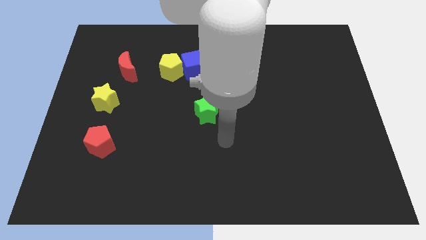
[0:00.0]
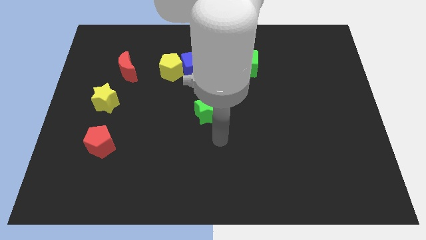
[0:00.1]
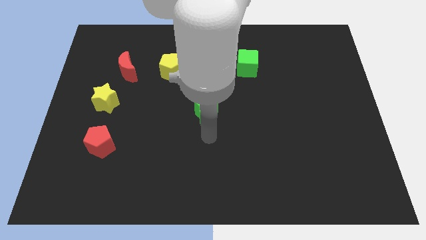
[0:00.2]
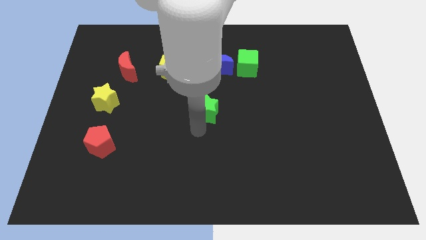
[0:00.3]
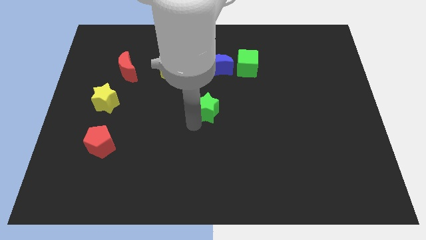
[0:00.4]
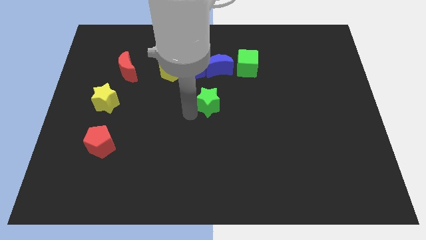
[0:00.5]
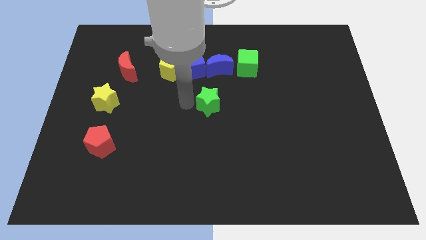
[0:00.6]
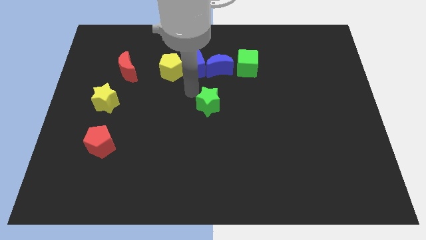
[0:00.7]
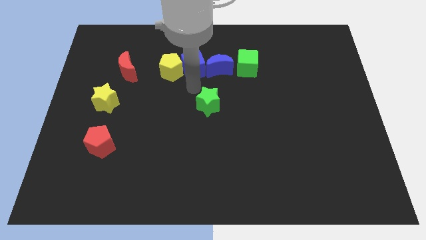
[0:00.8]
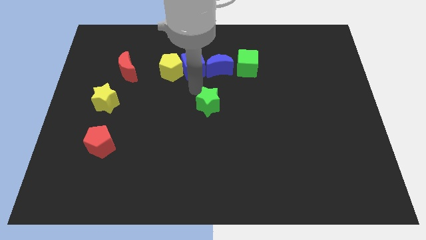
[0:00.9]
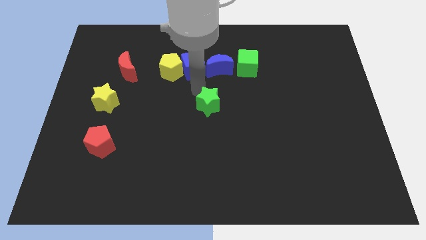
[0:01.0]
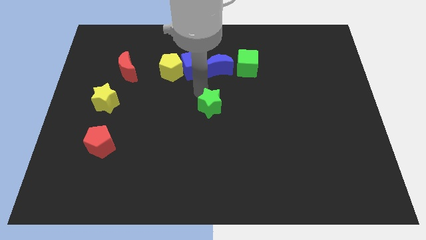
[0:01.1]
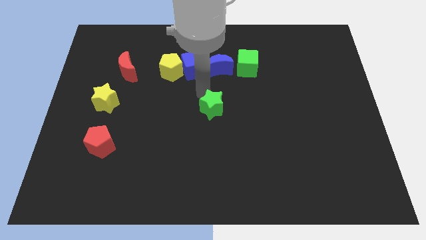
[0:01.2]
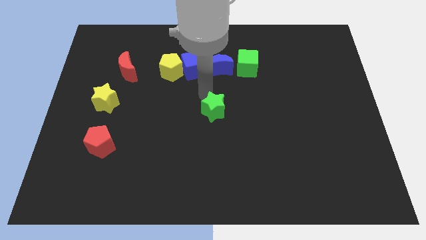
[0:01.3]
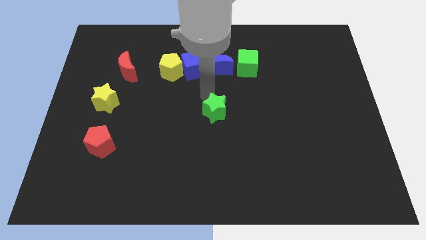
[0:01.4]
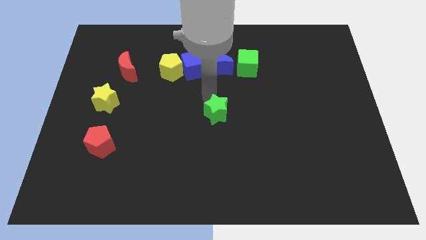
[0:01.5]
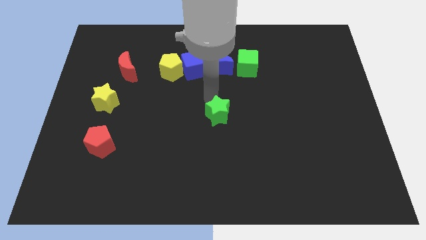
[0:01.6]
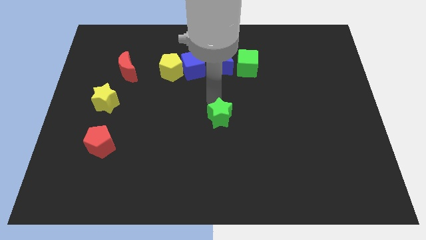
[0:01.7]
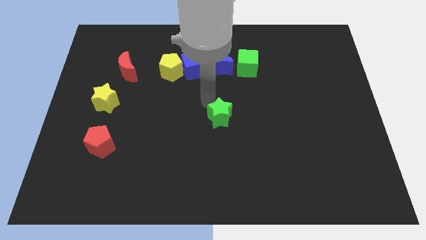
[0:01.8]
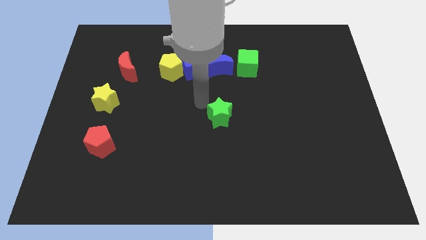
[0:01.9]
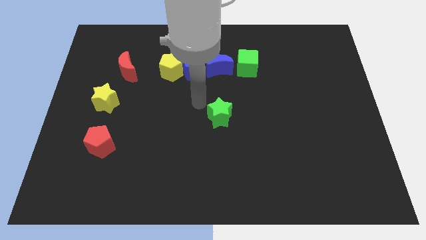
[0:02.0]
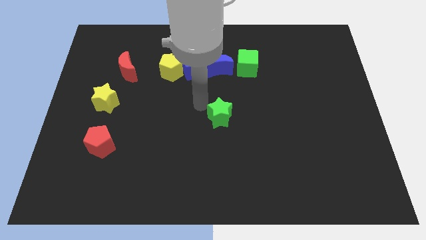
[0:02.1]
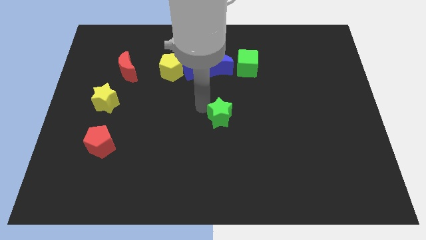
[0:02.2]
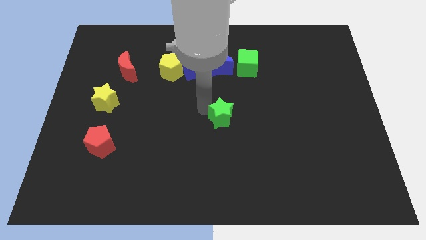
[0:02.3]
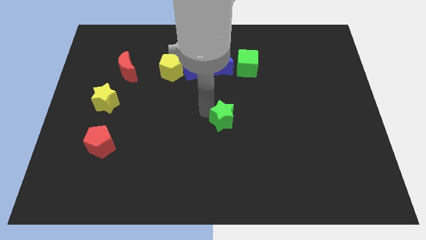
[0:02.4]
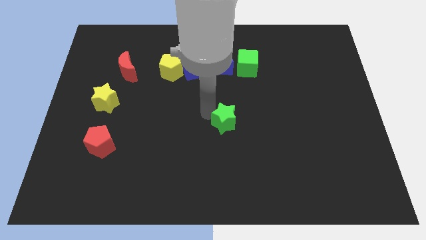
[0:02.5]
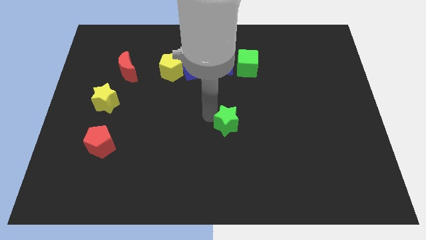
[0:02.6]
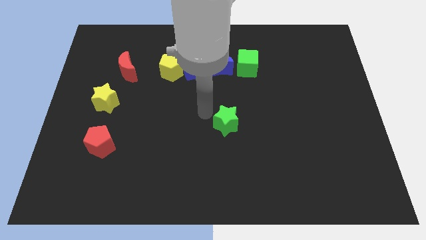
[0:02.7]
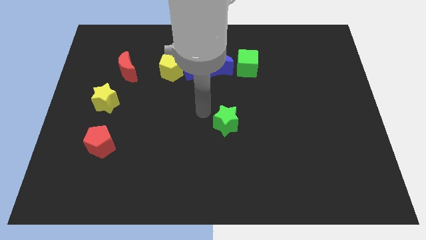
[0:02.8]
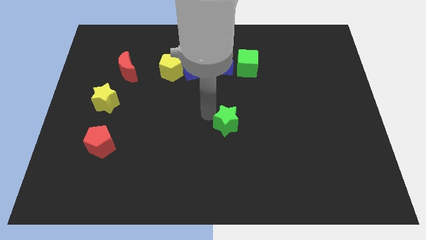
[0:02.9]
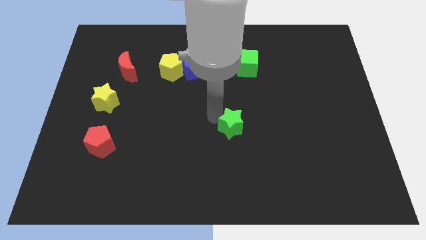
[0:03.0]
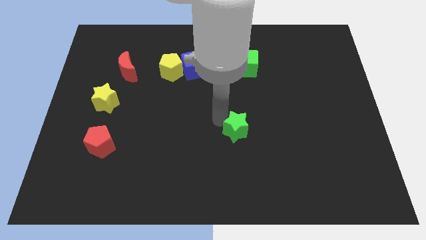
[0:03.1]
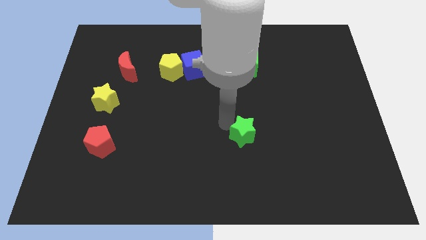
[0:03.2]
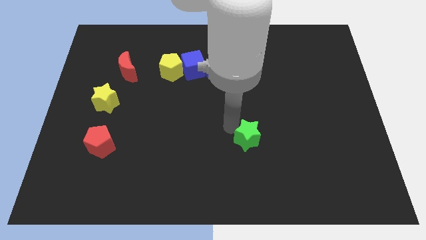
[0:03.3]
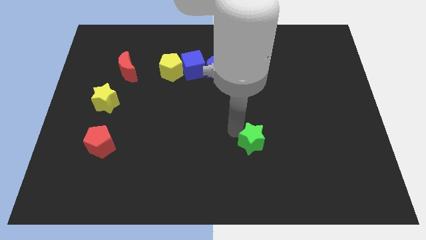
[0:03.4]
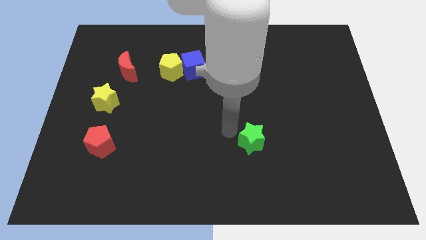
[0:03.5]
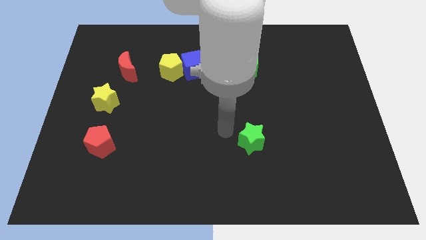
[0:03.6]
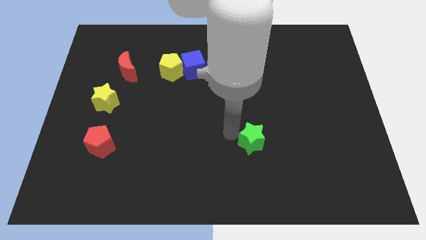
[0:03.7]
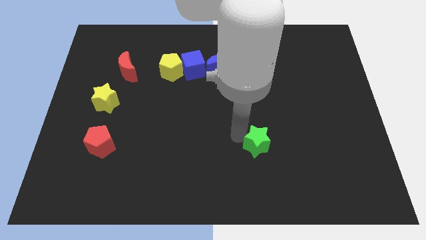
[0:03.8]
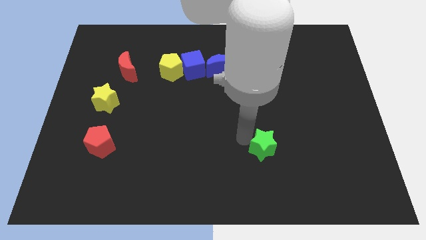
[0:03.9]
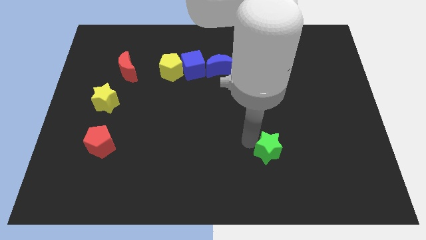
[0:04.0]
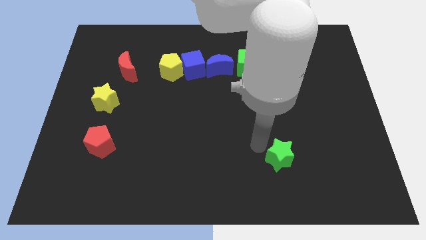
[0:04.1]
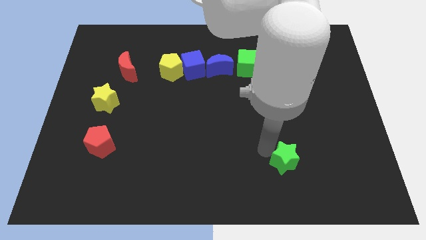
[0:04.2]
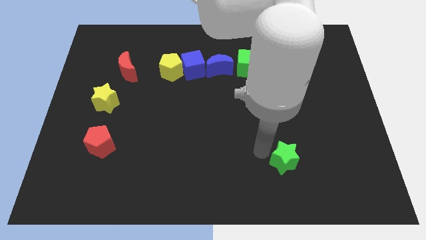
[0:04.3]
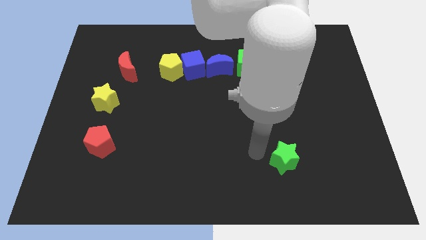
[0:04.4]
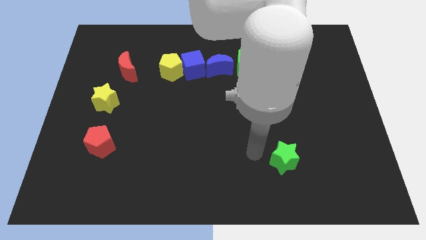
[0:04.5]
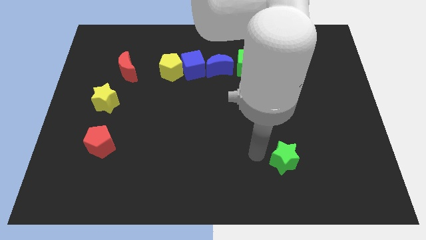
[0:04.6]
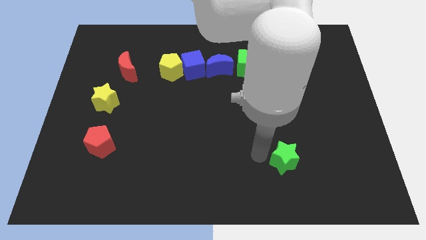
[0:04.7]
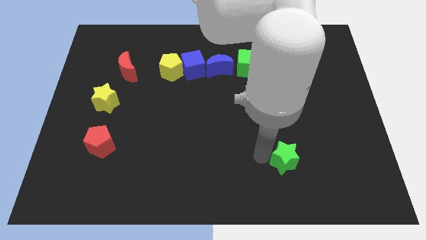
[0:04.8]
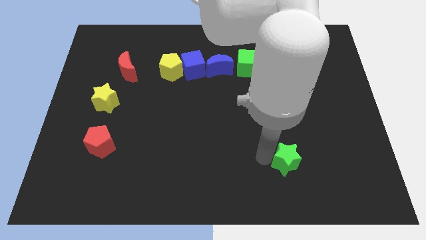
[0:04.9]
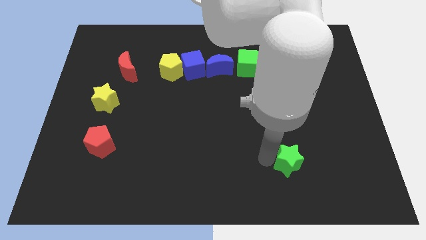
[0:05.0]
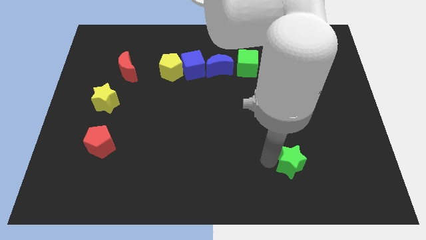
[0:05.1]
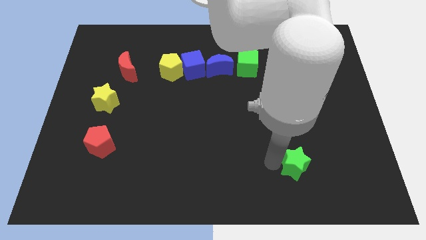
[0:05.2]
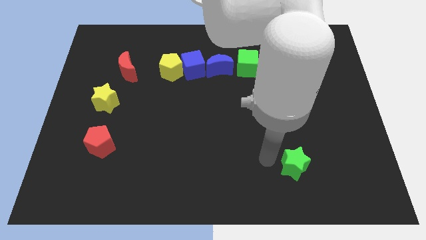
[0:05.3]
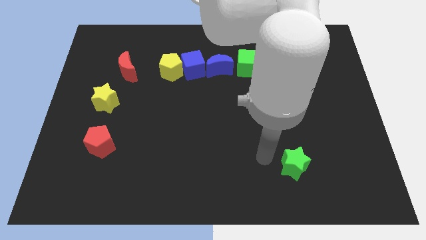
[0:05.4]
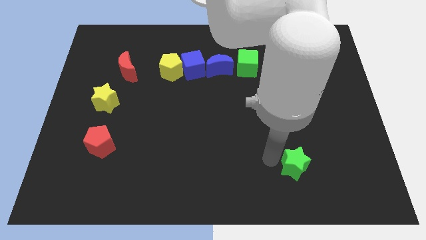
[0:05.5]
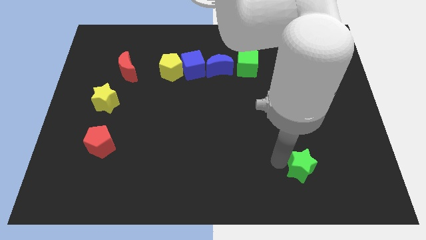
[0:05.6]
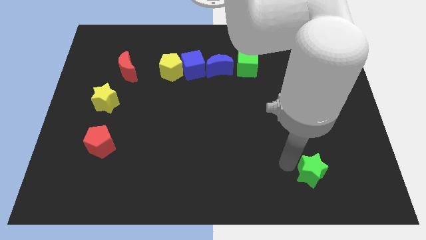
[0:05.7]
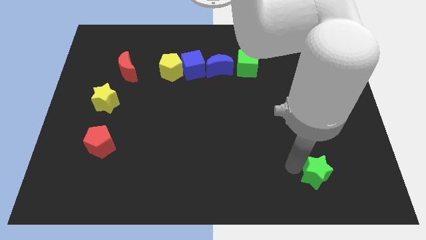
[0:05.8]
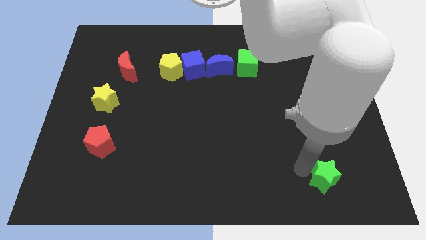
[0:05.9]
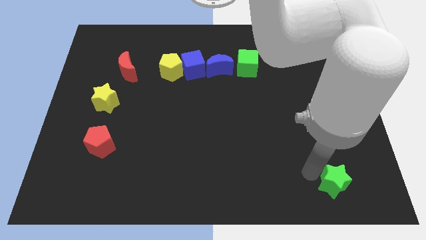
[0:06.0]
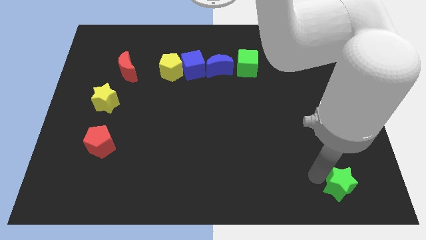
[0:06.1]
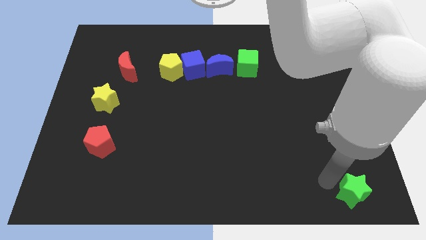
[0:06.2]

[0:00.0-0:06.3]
slide the green star to the bottom right

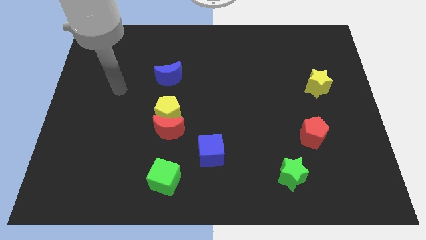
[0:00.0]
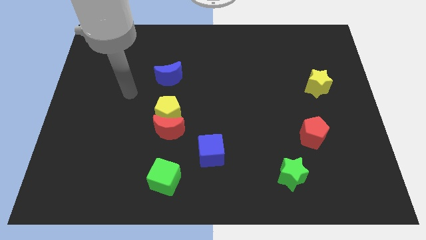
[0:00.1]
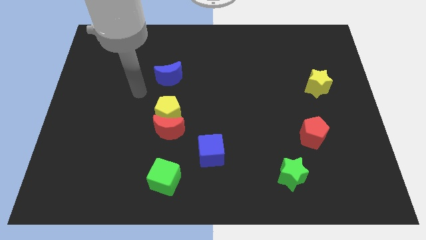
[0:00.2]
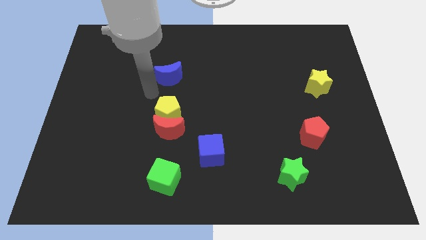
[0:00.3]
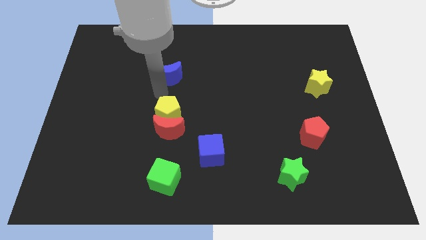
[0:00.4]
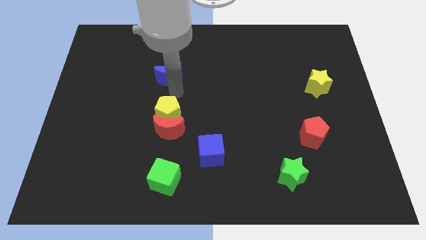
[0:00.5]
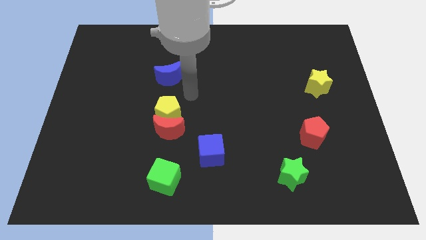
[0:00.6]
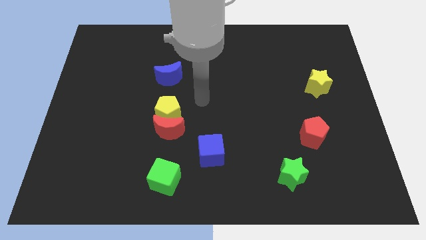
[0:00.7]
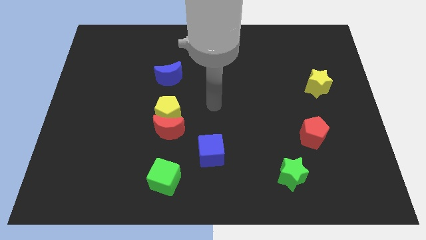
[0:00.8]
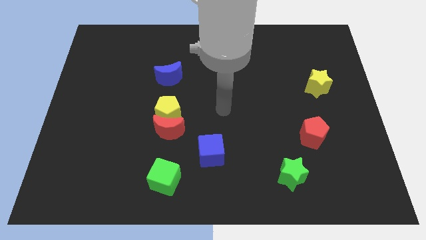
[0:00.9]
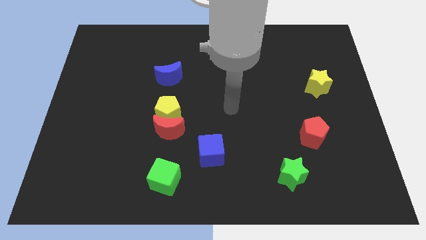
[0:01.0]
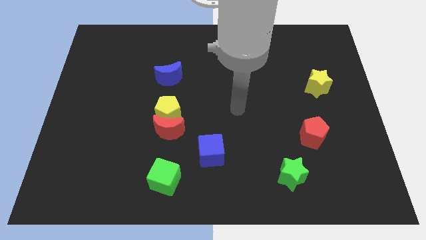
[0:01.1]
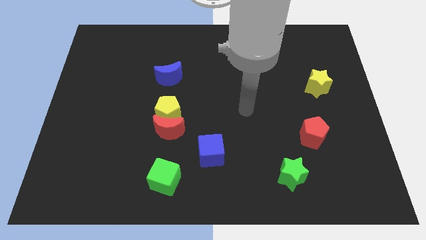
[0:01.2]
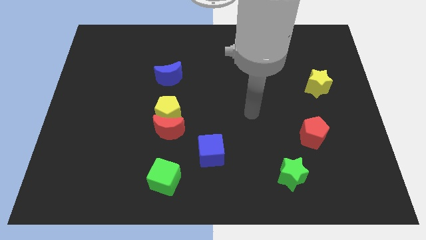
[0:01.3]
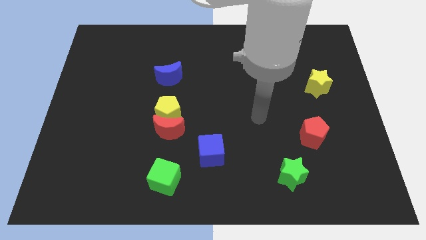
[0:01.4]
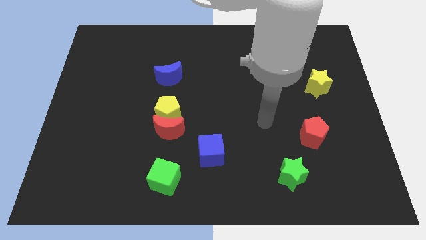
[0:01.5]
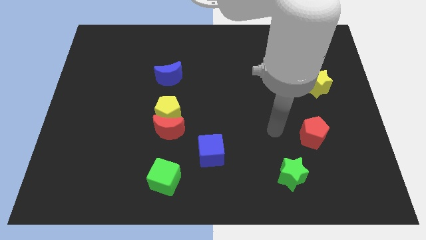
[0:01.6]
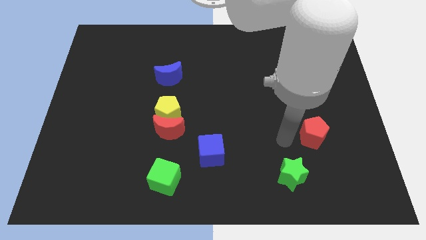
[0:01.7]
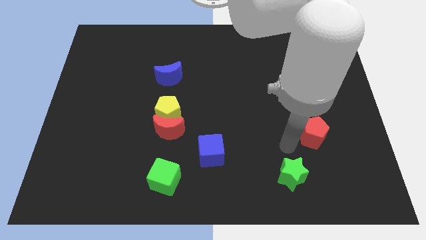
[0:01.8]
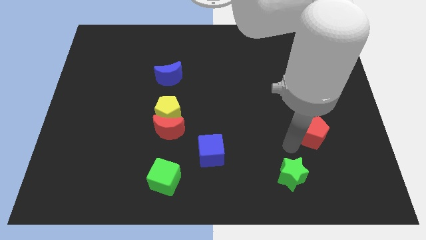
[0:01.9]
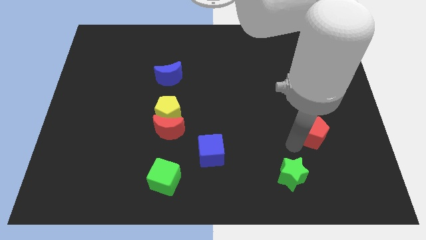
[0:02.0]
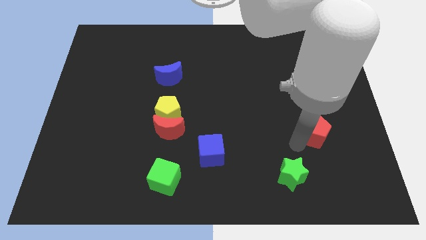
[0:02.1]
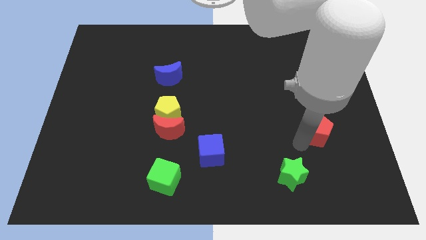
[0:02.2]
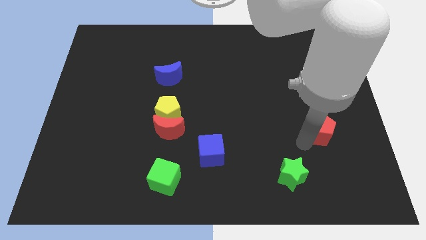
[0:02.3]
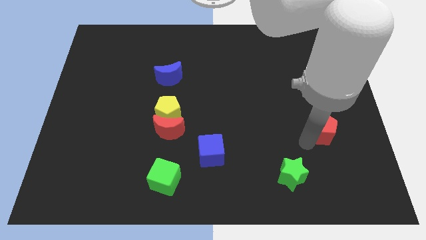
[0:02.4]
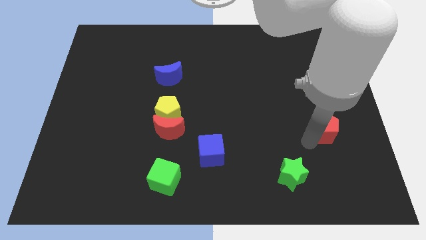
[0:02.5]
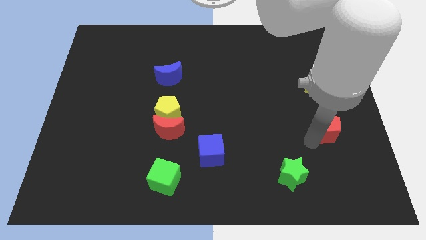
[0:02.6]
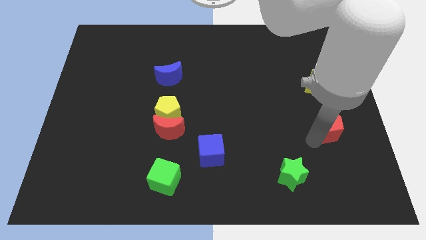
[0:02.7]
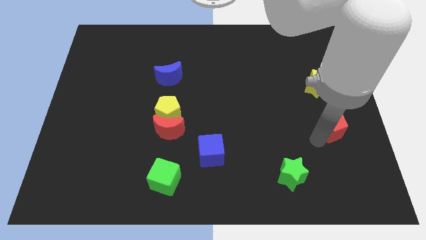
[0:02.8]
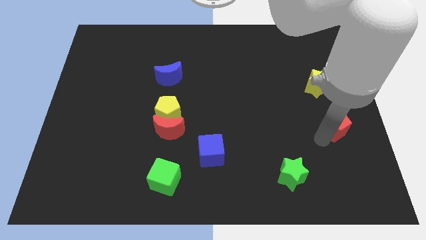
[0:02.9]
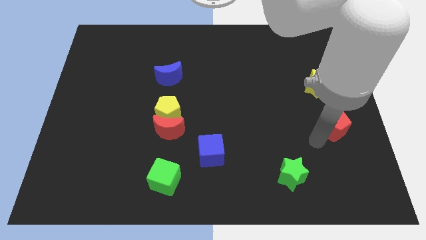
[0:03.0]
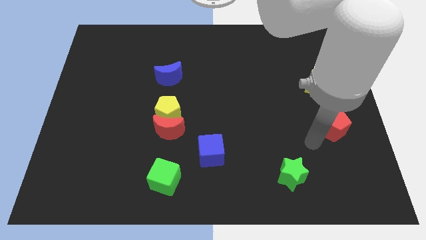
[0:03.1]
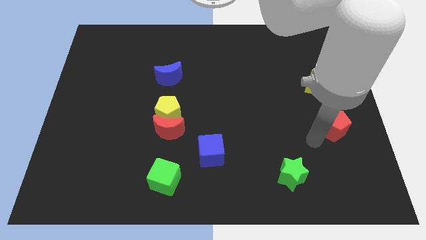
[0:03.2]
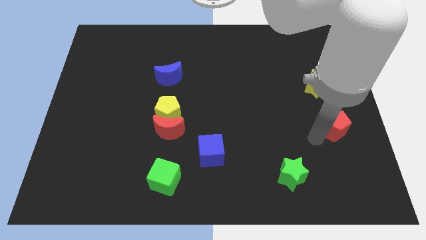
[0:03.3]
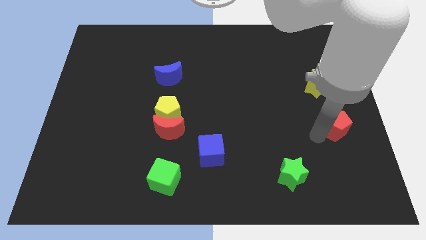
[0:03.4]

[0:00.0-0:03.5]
move the red pentagon to the center right
